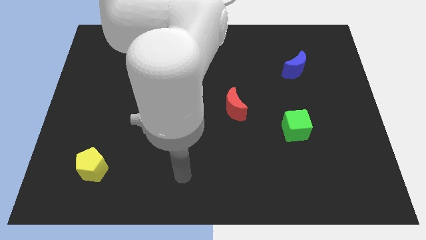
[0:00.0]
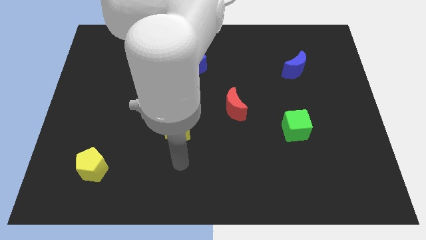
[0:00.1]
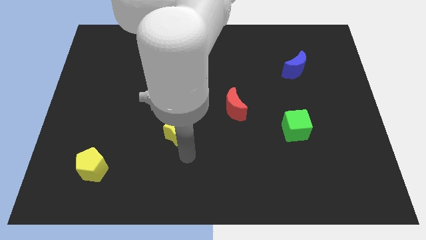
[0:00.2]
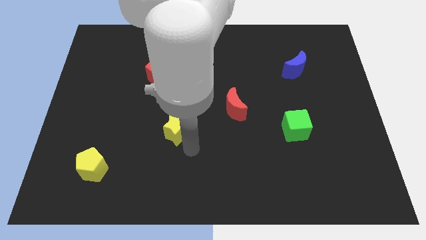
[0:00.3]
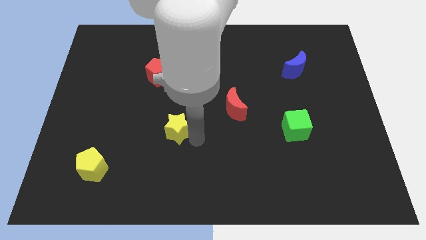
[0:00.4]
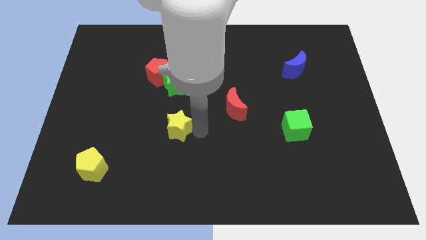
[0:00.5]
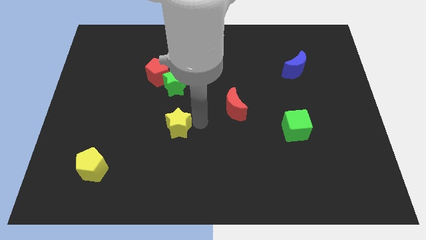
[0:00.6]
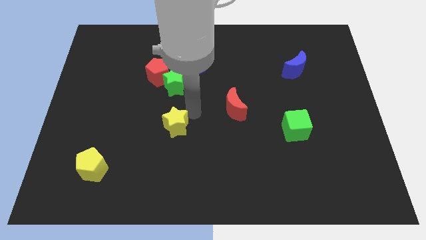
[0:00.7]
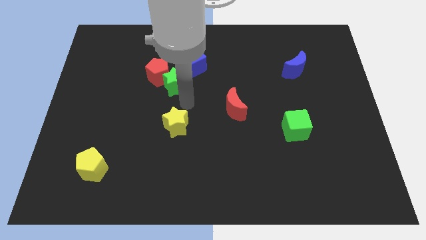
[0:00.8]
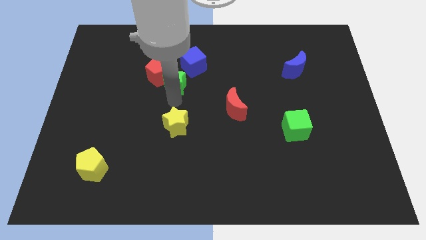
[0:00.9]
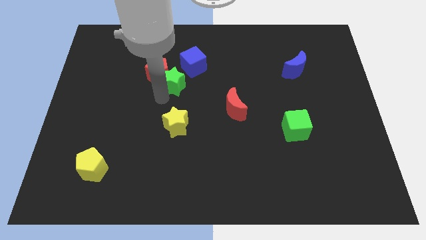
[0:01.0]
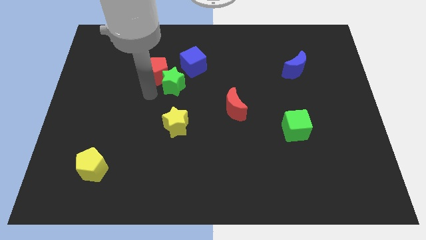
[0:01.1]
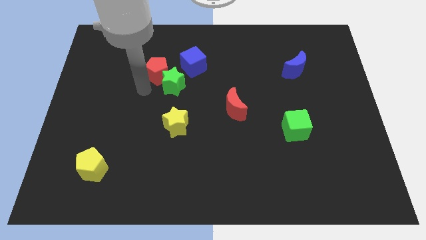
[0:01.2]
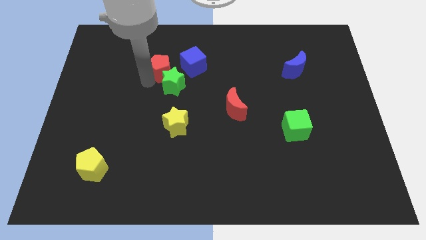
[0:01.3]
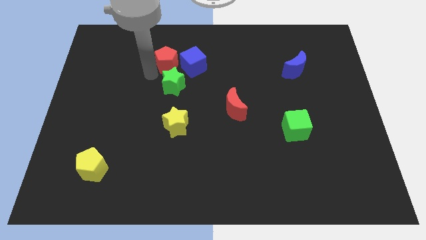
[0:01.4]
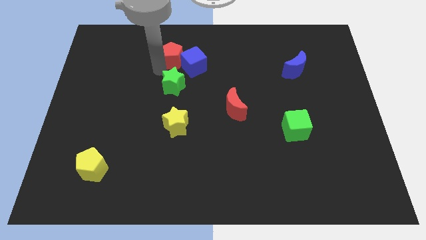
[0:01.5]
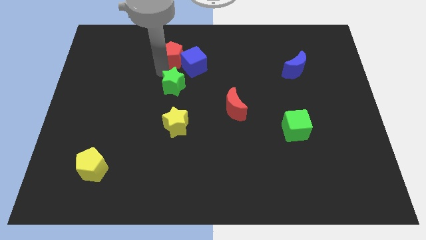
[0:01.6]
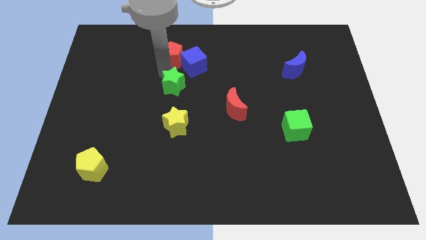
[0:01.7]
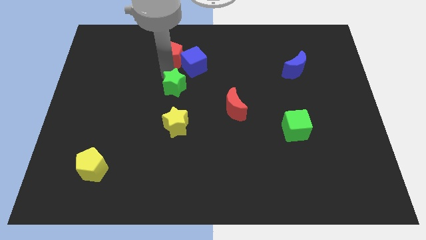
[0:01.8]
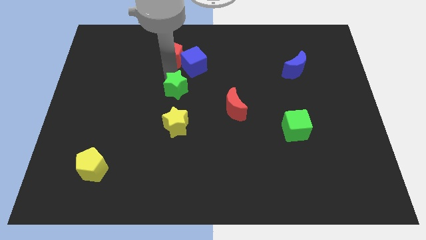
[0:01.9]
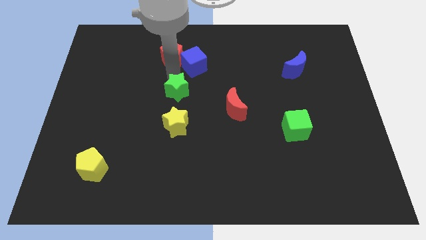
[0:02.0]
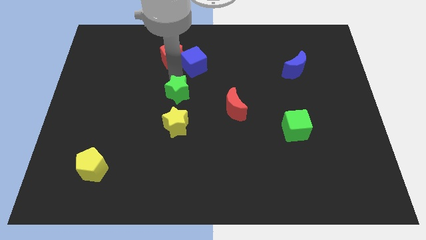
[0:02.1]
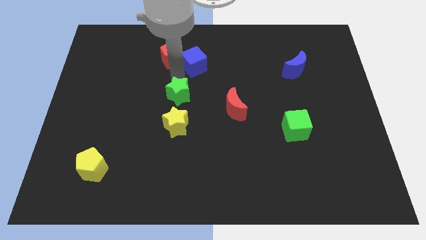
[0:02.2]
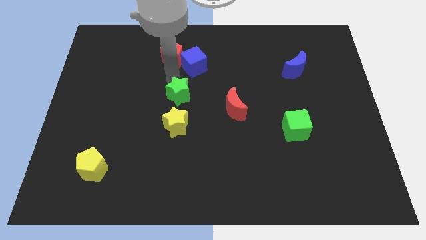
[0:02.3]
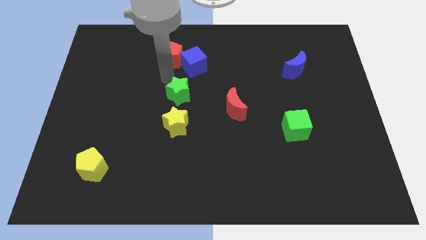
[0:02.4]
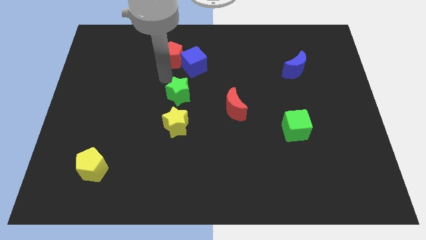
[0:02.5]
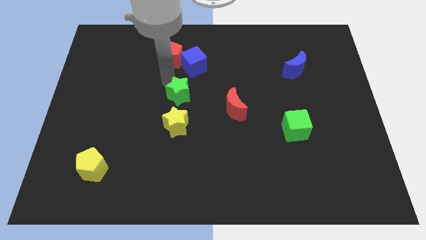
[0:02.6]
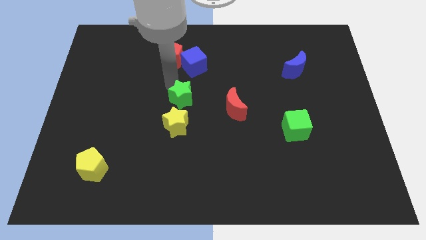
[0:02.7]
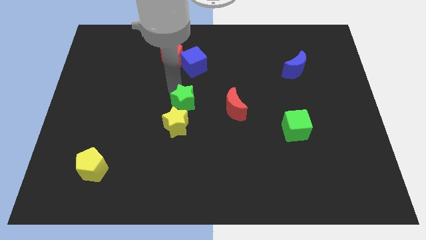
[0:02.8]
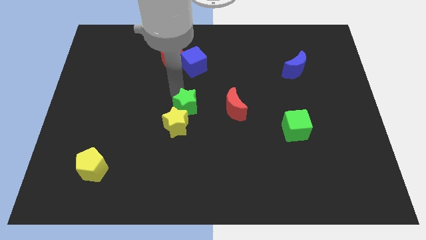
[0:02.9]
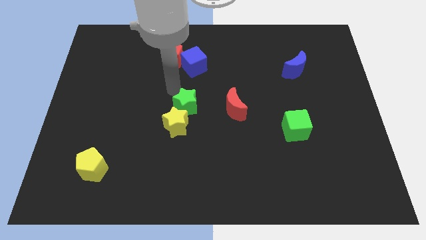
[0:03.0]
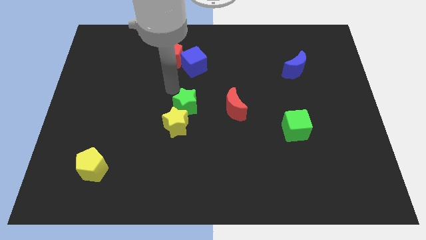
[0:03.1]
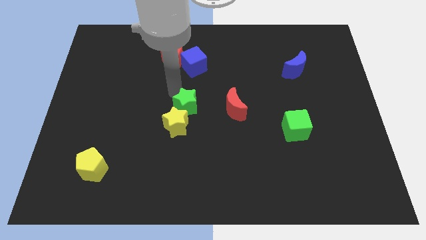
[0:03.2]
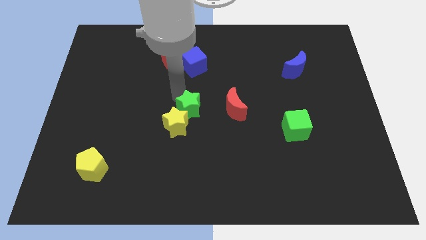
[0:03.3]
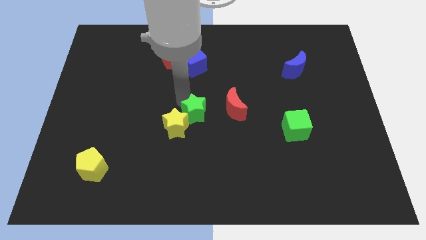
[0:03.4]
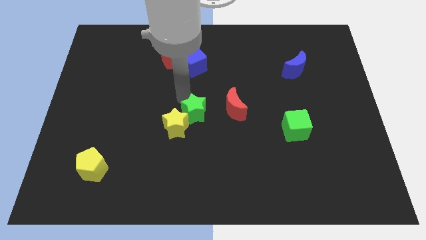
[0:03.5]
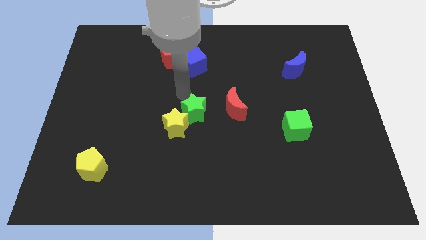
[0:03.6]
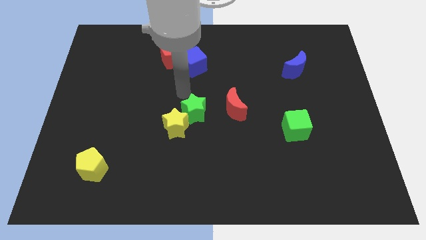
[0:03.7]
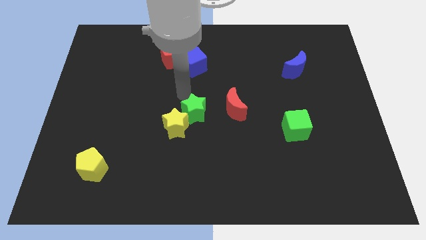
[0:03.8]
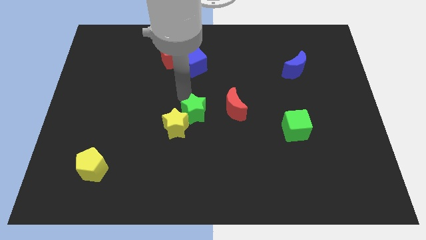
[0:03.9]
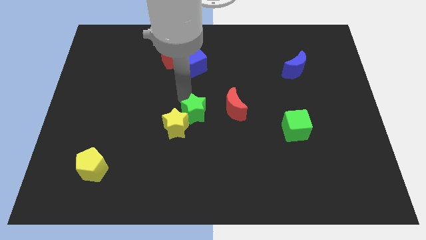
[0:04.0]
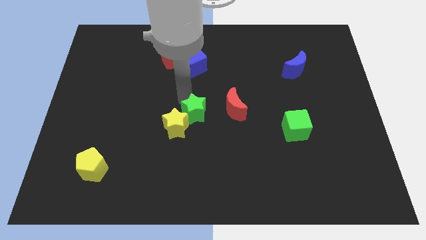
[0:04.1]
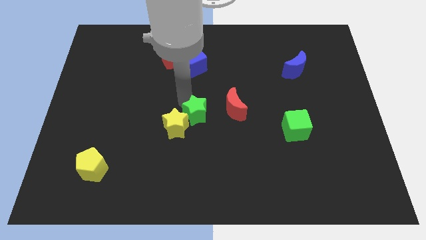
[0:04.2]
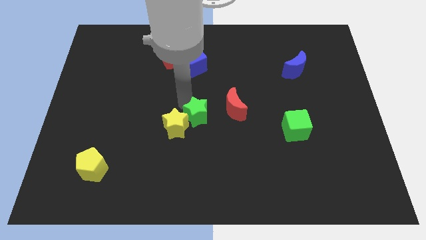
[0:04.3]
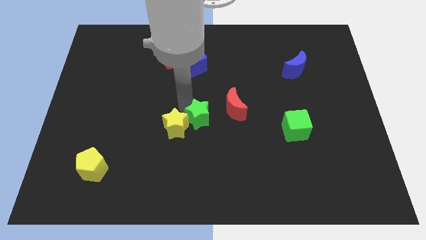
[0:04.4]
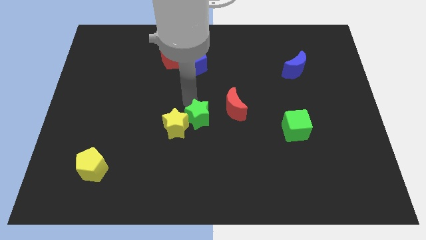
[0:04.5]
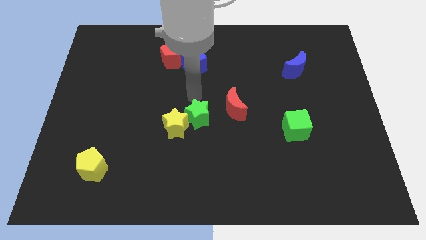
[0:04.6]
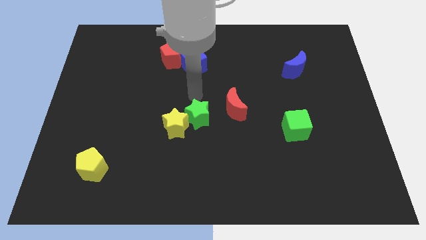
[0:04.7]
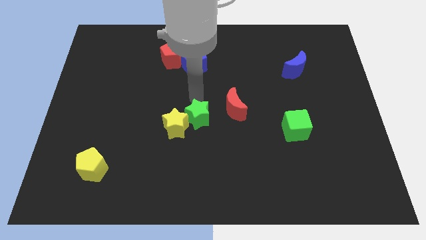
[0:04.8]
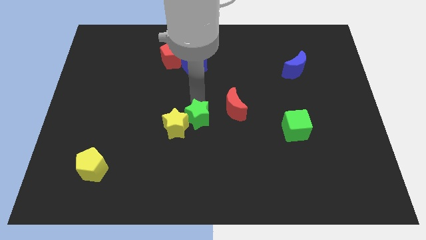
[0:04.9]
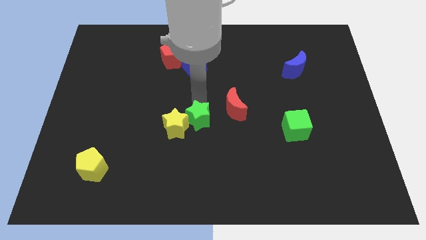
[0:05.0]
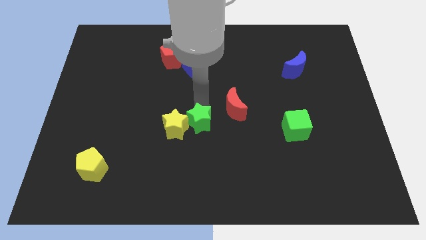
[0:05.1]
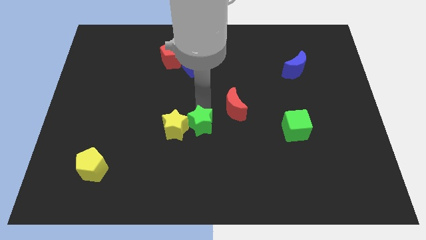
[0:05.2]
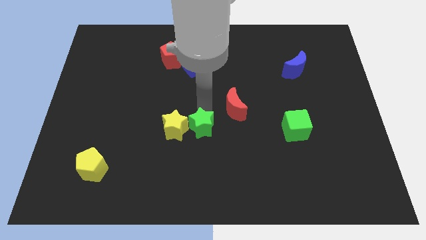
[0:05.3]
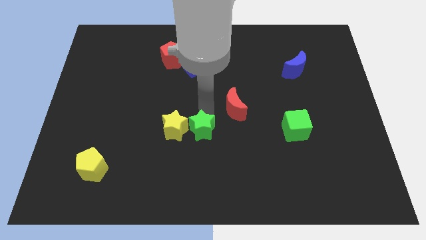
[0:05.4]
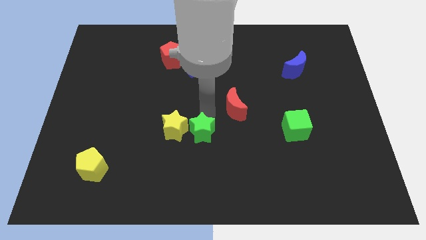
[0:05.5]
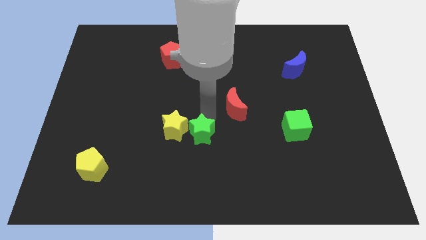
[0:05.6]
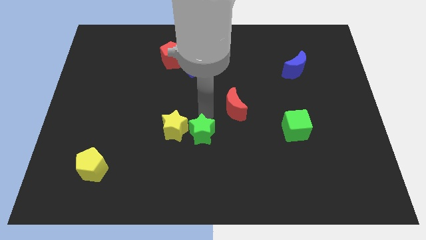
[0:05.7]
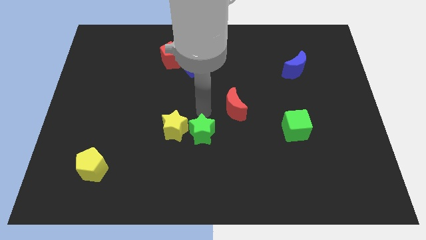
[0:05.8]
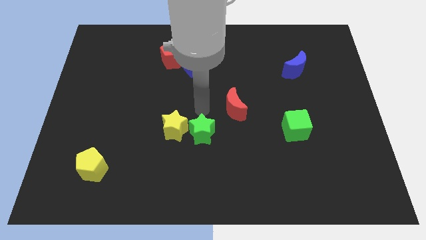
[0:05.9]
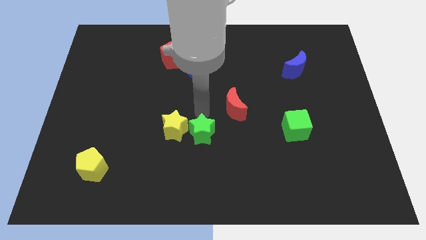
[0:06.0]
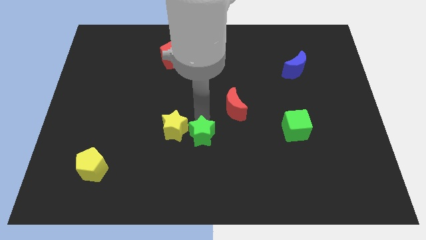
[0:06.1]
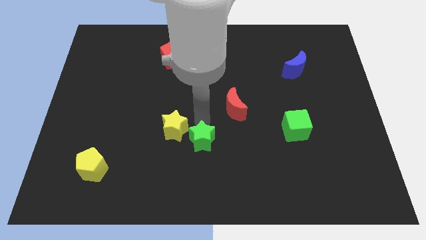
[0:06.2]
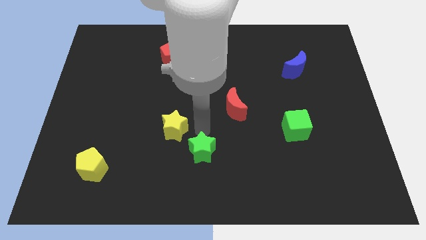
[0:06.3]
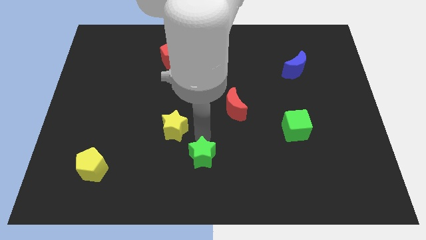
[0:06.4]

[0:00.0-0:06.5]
move the green star to the bottom
